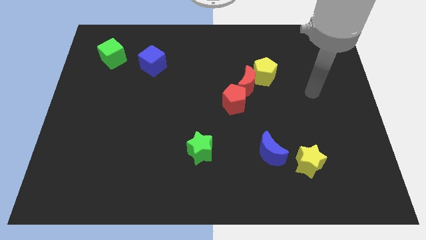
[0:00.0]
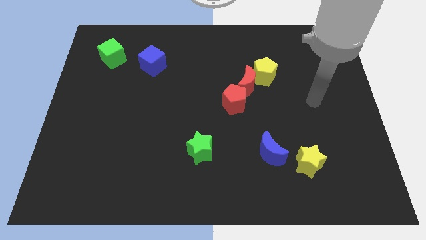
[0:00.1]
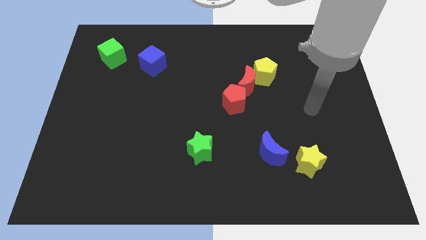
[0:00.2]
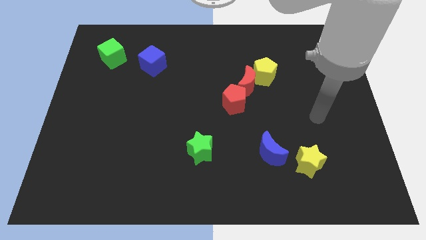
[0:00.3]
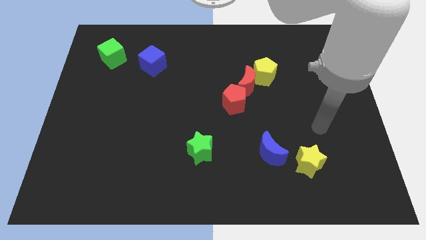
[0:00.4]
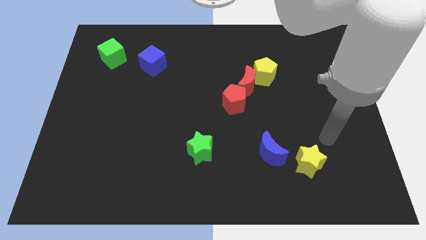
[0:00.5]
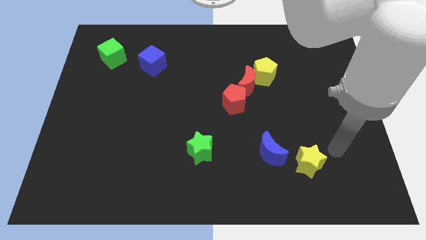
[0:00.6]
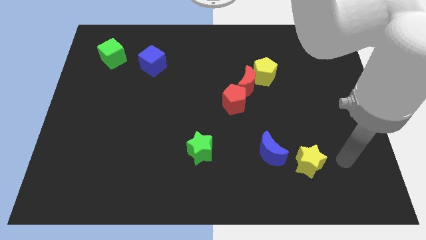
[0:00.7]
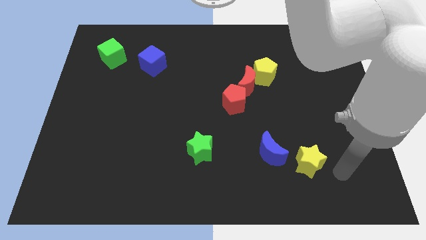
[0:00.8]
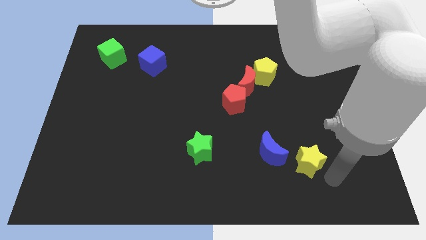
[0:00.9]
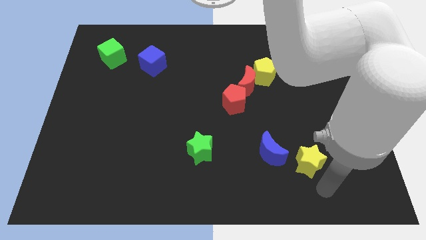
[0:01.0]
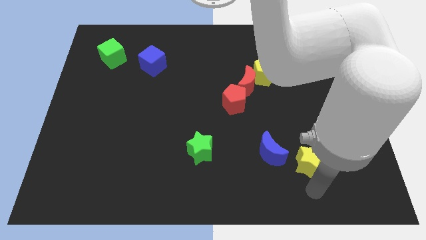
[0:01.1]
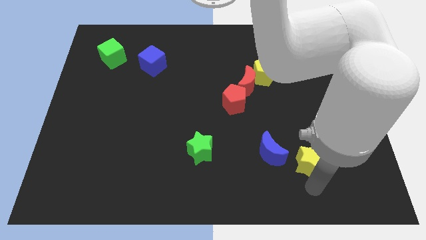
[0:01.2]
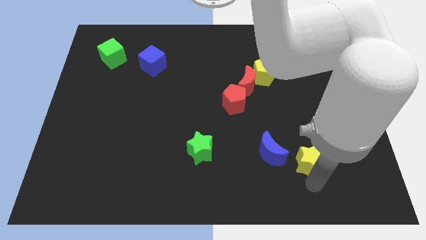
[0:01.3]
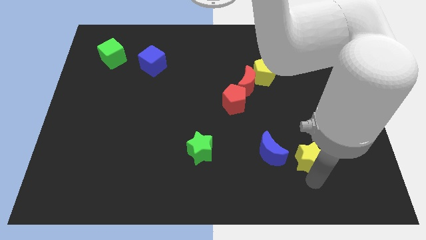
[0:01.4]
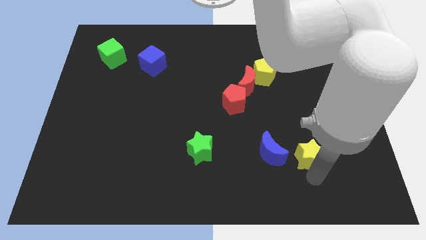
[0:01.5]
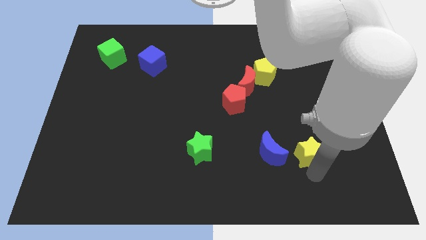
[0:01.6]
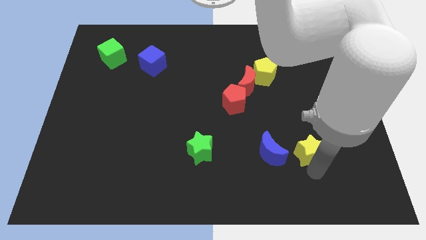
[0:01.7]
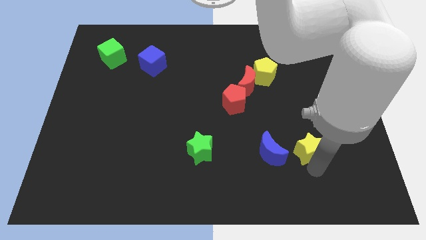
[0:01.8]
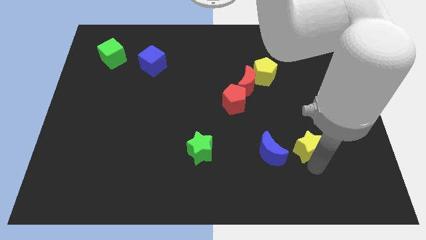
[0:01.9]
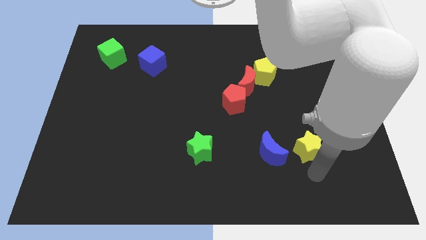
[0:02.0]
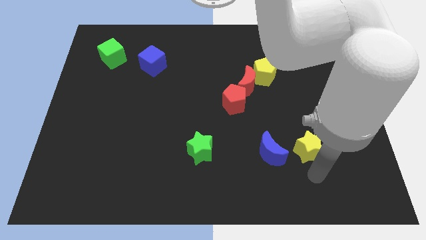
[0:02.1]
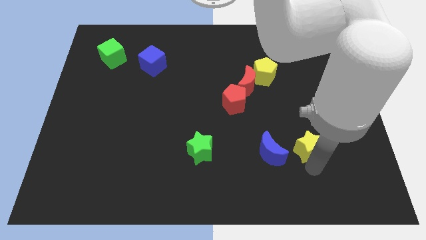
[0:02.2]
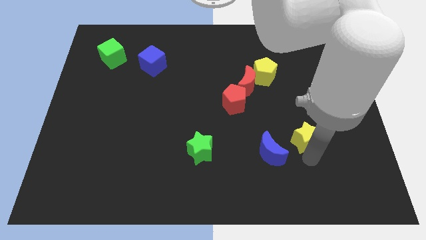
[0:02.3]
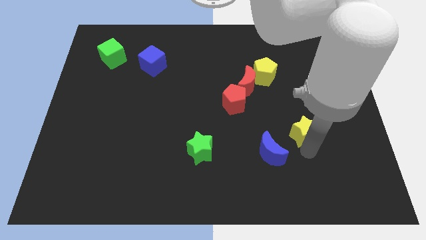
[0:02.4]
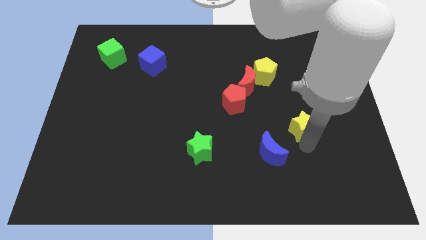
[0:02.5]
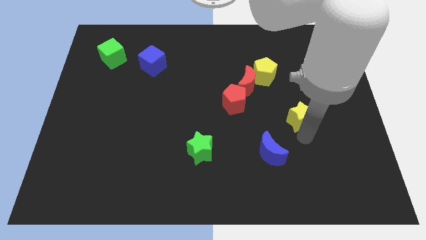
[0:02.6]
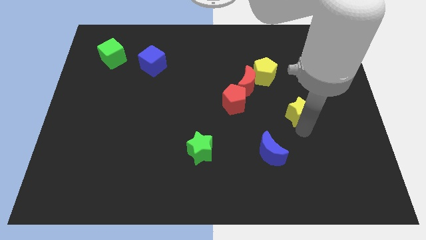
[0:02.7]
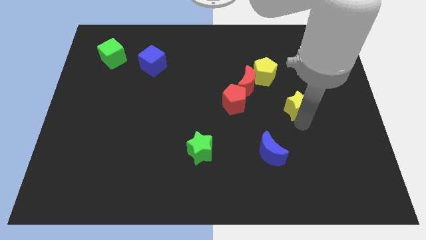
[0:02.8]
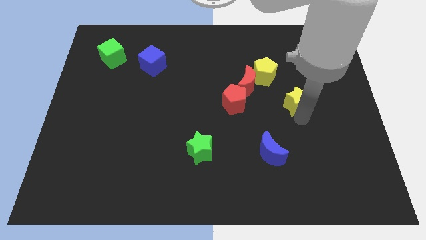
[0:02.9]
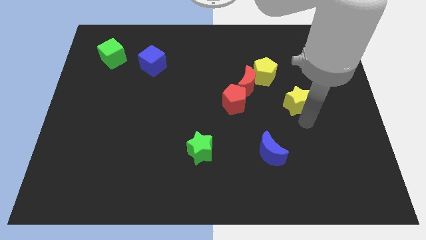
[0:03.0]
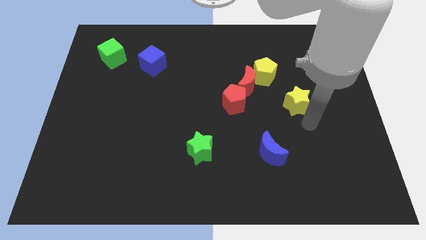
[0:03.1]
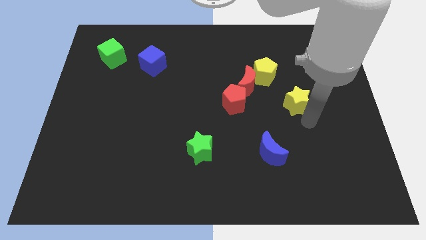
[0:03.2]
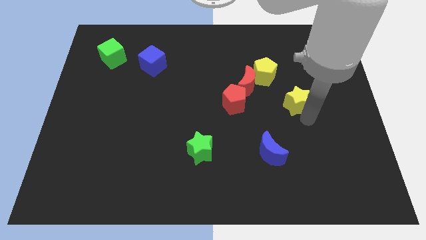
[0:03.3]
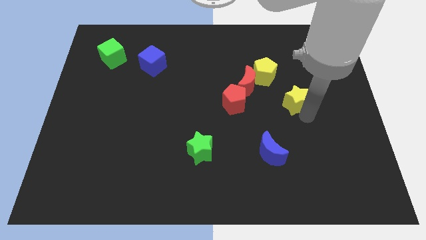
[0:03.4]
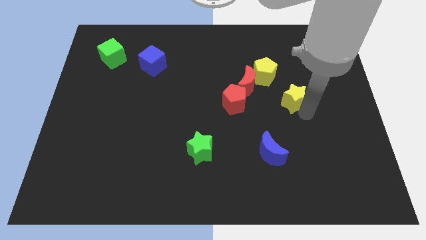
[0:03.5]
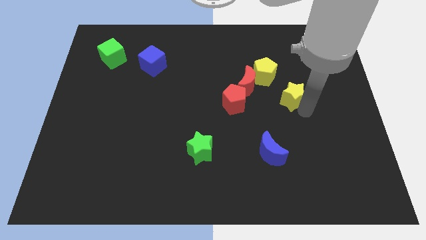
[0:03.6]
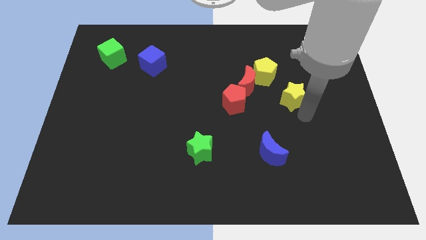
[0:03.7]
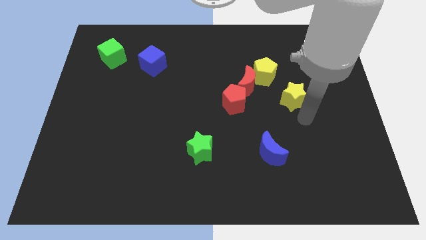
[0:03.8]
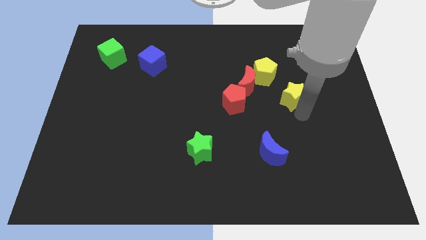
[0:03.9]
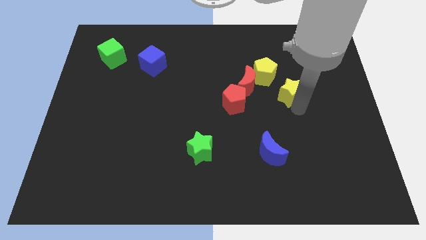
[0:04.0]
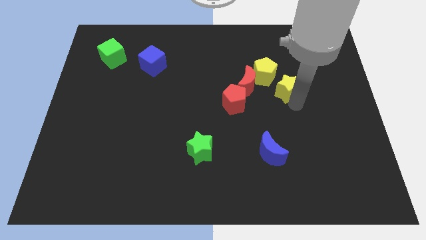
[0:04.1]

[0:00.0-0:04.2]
slide the yellow star up

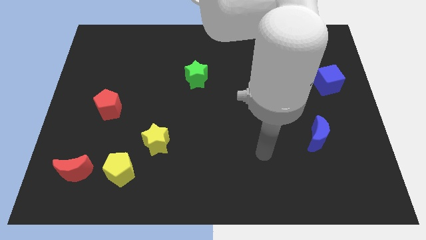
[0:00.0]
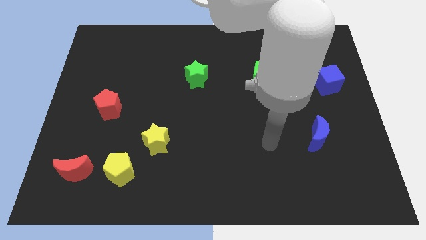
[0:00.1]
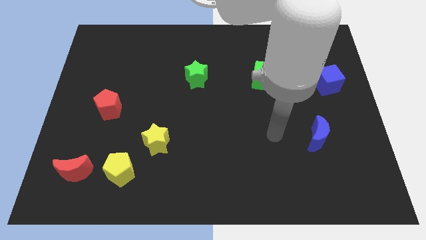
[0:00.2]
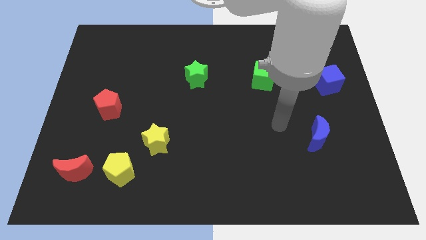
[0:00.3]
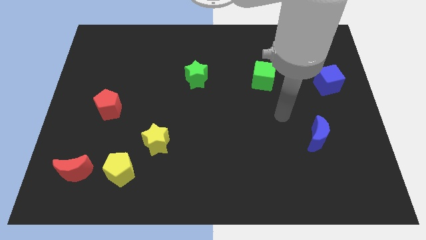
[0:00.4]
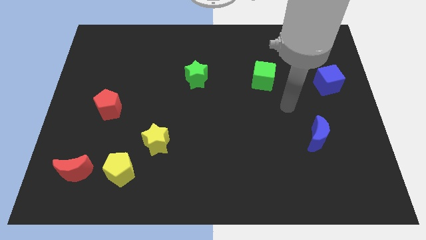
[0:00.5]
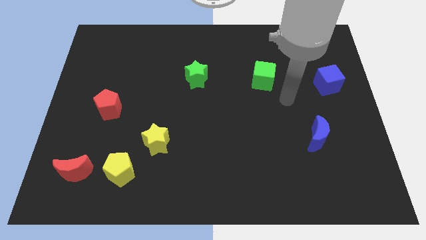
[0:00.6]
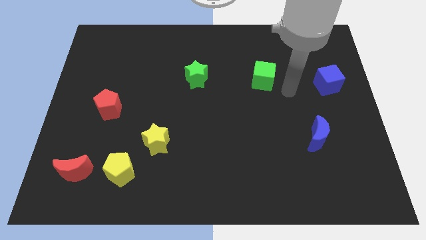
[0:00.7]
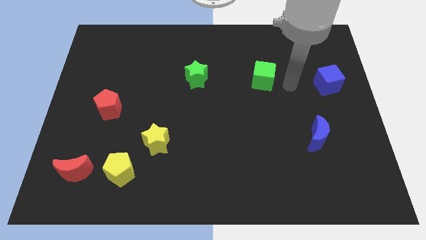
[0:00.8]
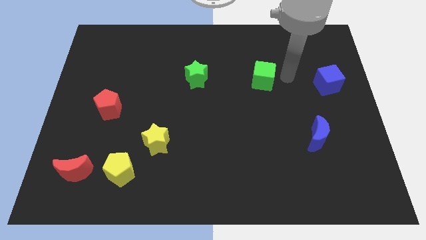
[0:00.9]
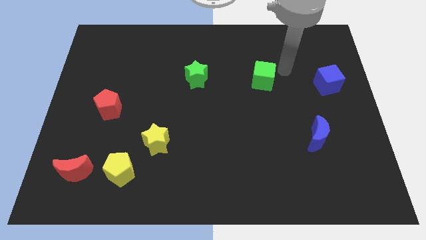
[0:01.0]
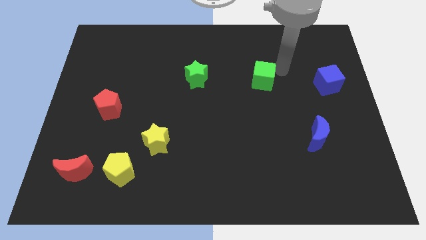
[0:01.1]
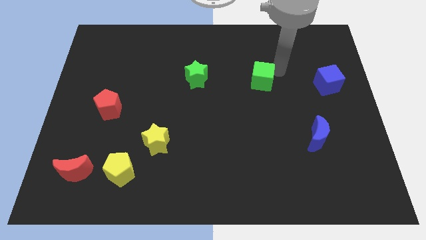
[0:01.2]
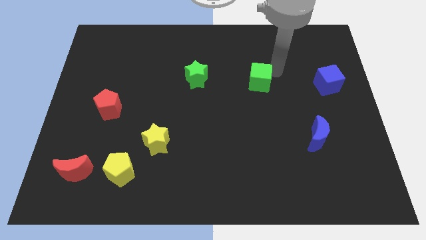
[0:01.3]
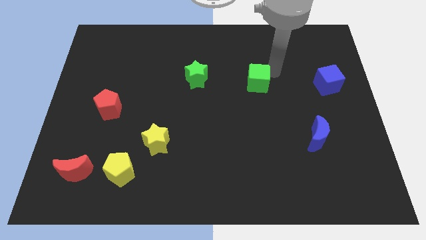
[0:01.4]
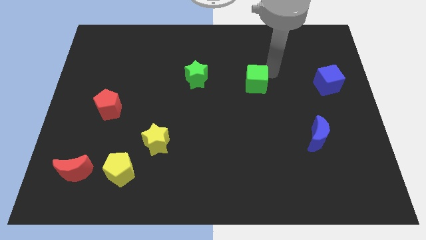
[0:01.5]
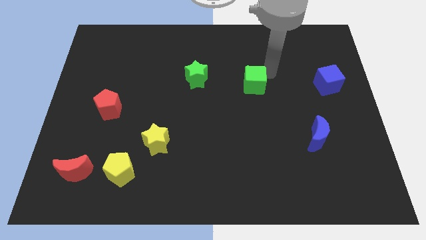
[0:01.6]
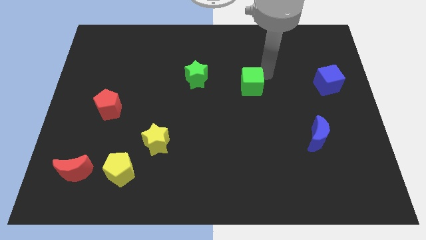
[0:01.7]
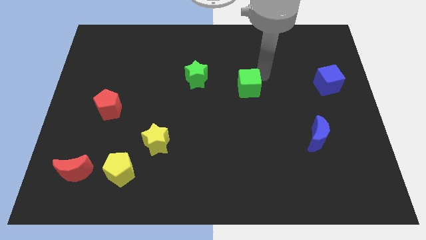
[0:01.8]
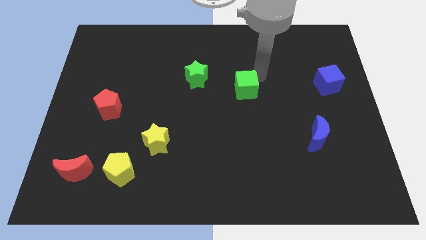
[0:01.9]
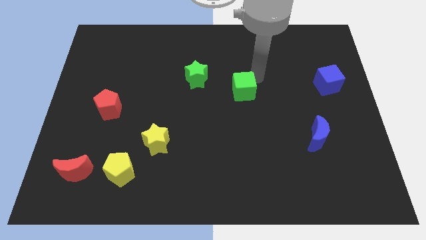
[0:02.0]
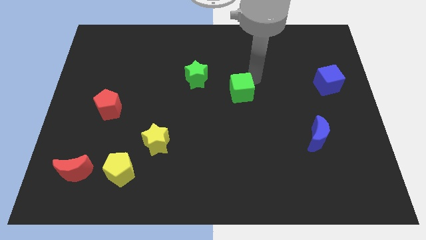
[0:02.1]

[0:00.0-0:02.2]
push the green cube a bit down and to the left

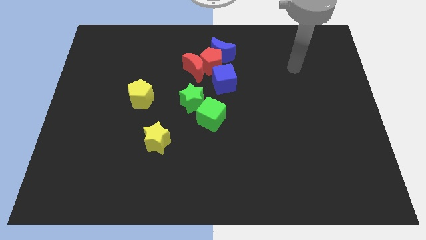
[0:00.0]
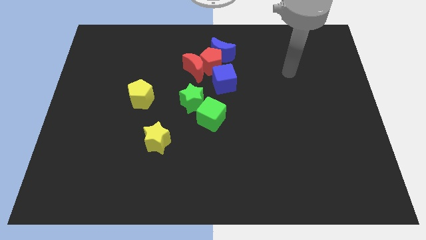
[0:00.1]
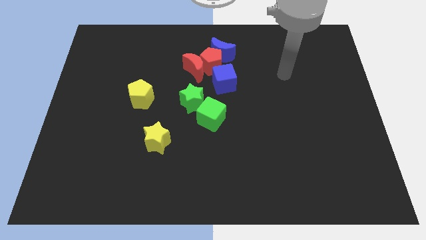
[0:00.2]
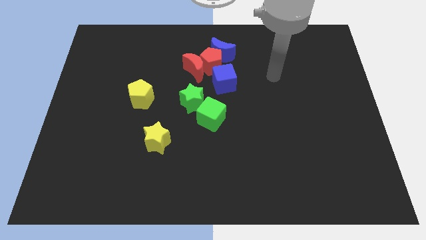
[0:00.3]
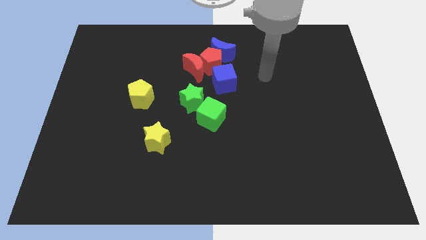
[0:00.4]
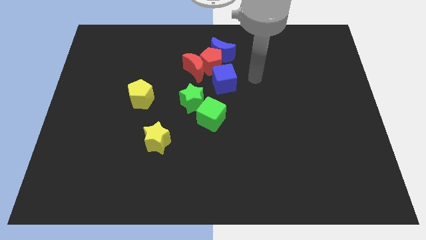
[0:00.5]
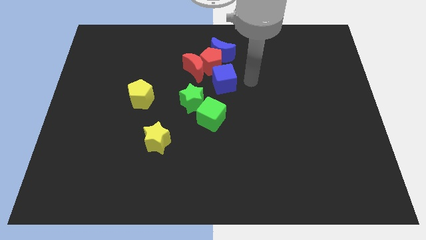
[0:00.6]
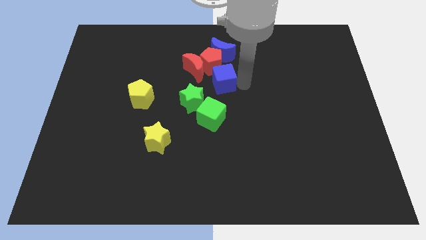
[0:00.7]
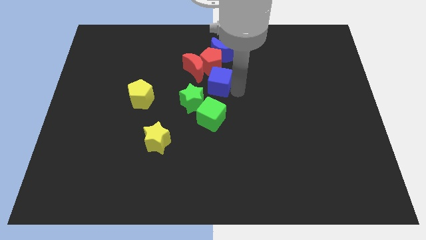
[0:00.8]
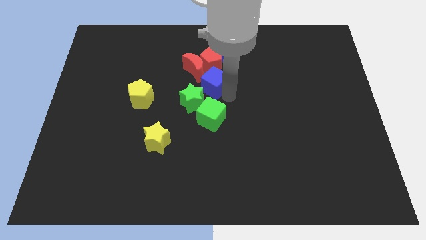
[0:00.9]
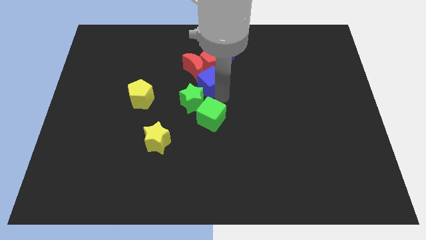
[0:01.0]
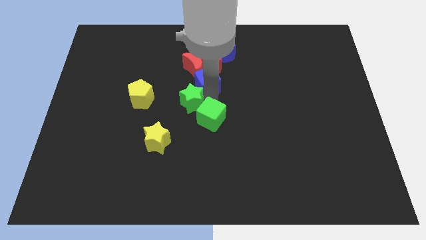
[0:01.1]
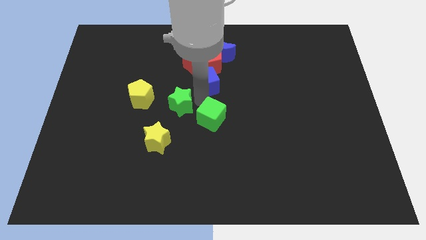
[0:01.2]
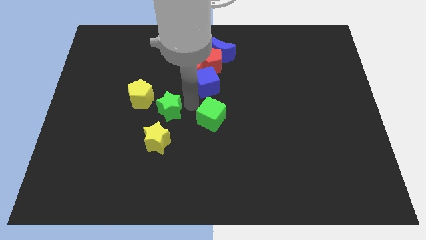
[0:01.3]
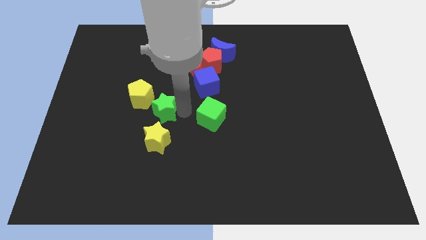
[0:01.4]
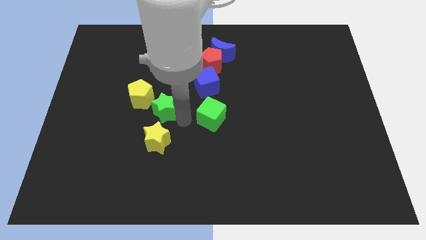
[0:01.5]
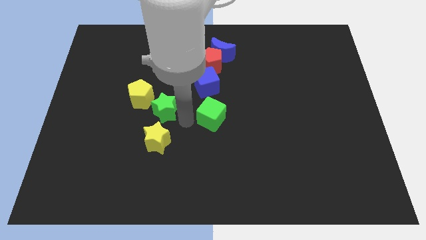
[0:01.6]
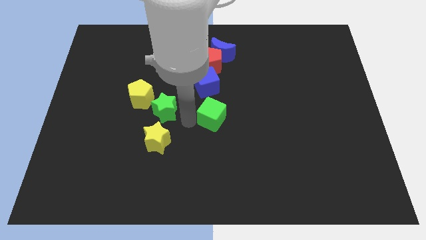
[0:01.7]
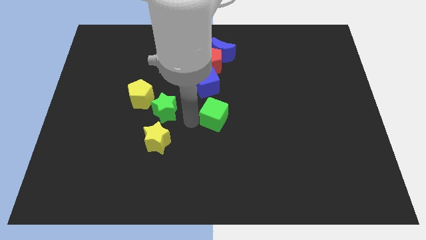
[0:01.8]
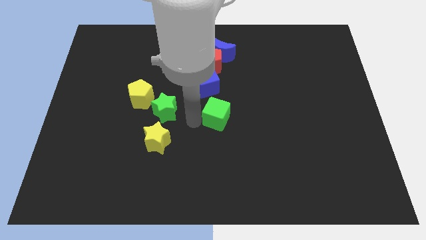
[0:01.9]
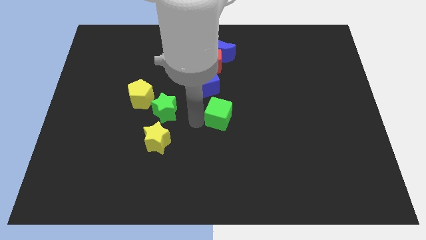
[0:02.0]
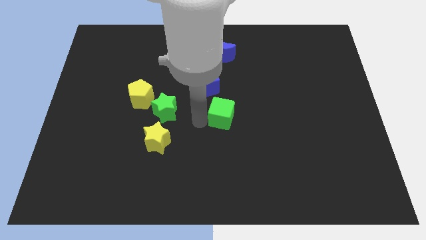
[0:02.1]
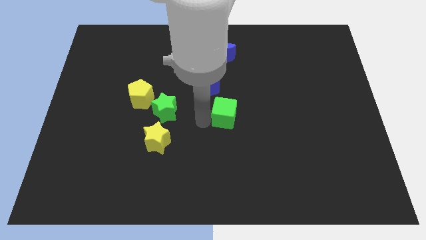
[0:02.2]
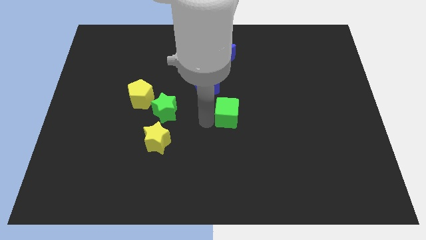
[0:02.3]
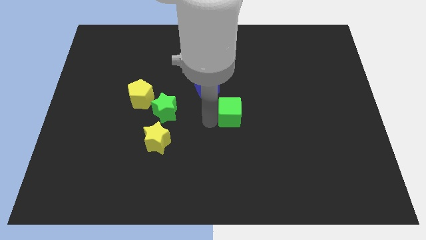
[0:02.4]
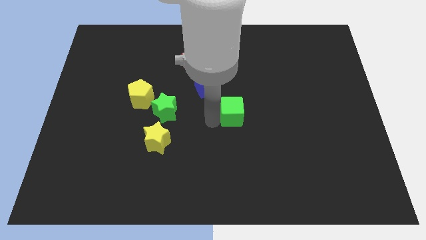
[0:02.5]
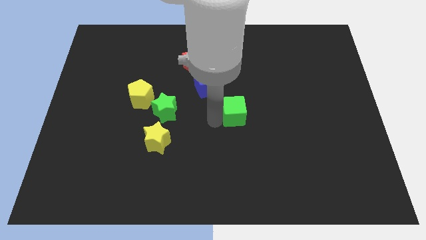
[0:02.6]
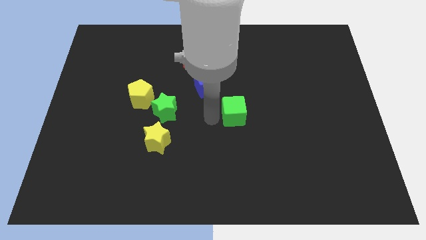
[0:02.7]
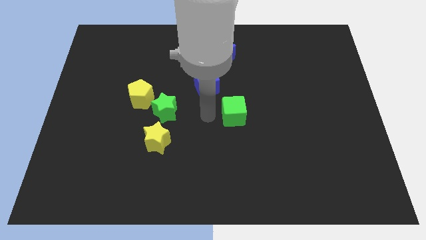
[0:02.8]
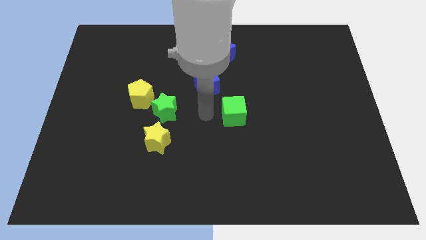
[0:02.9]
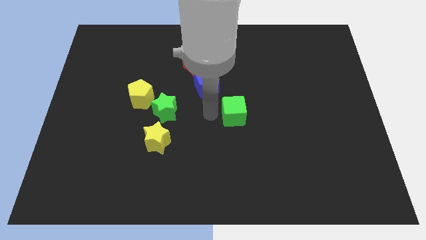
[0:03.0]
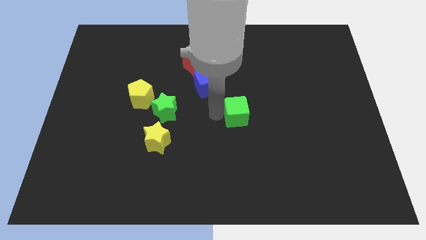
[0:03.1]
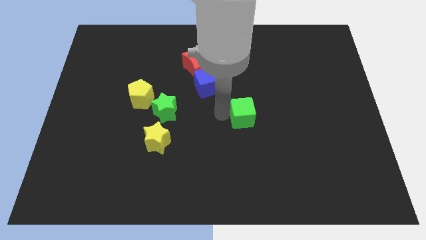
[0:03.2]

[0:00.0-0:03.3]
push the green cube a little bit to the right
